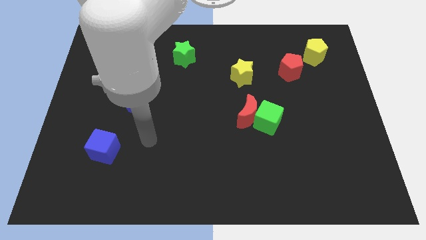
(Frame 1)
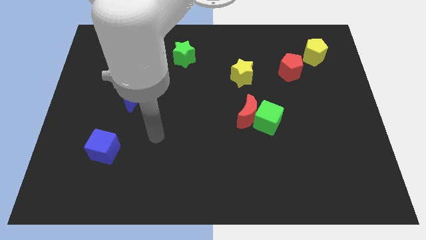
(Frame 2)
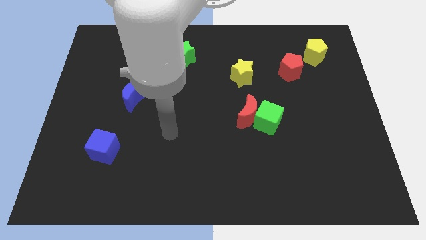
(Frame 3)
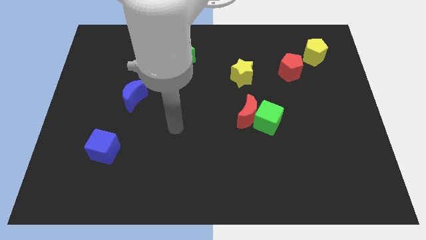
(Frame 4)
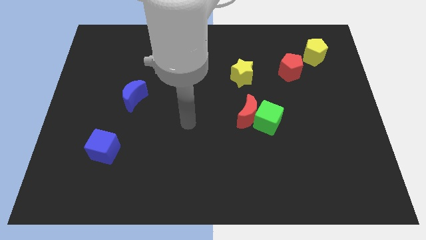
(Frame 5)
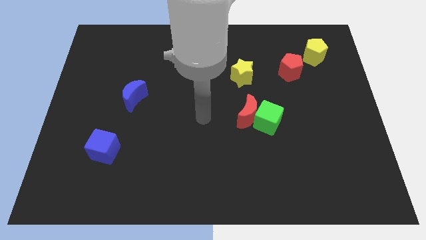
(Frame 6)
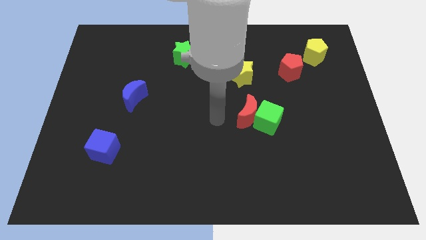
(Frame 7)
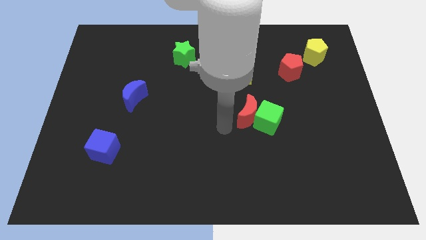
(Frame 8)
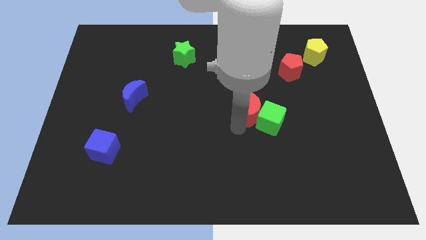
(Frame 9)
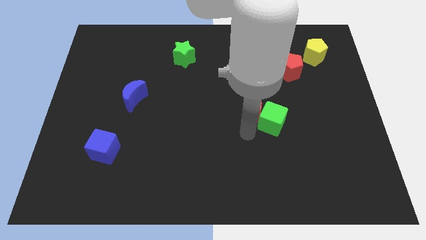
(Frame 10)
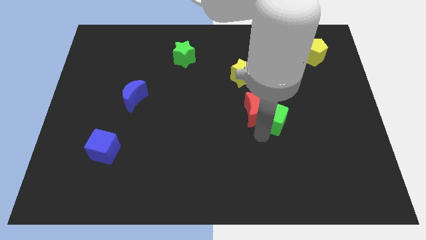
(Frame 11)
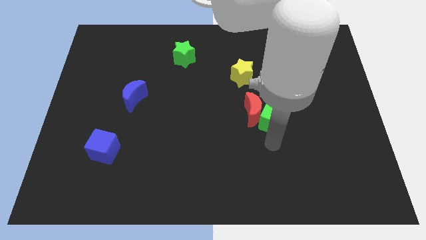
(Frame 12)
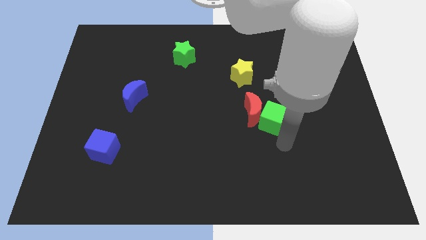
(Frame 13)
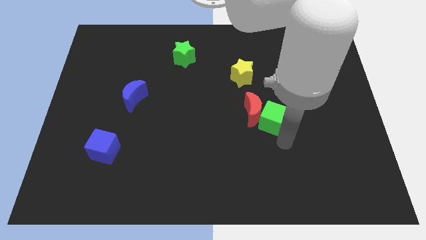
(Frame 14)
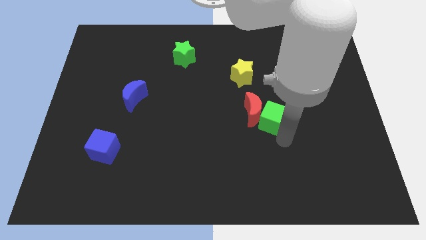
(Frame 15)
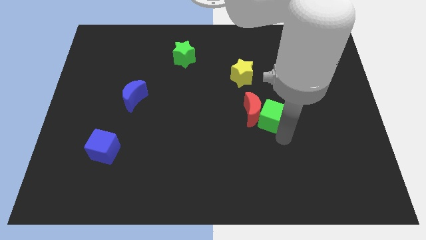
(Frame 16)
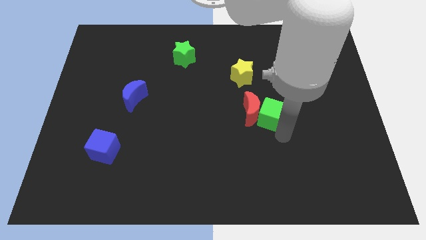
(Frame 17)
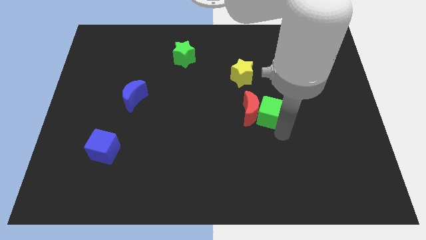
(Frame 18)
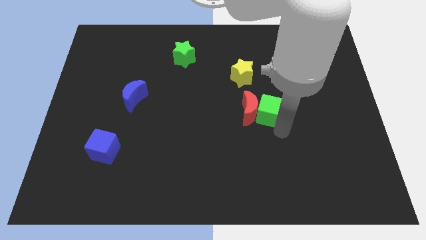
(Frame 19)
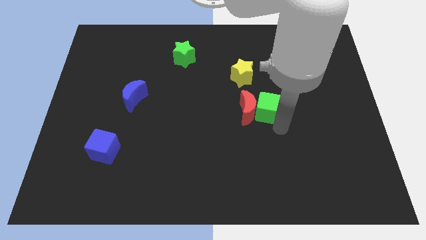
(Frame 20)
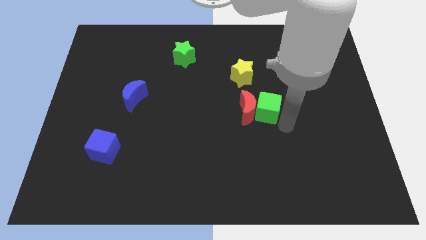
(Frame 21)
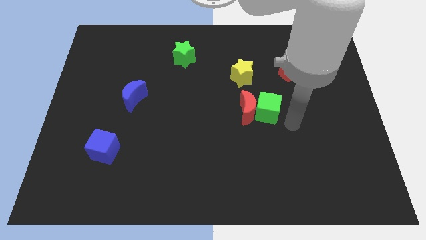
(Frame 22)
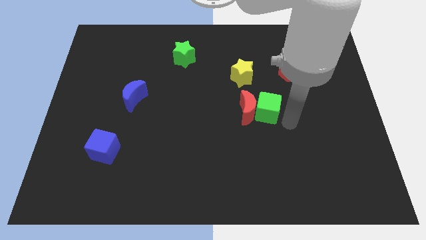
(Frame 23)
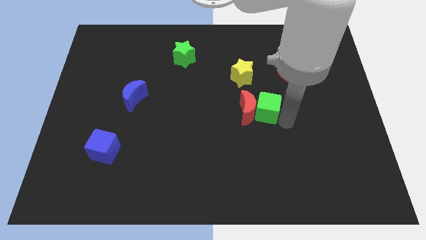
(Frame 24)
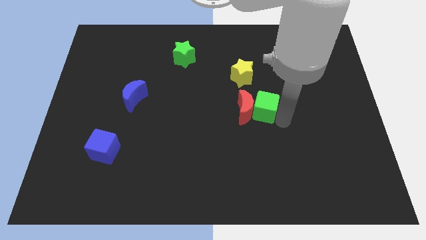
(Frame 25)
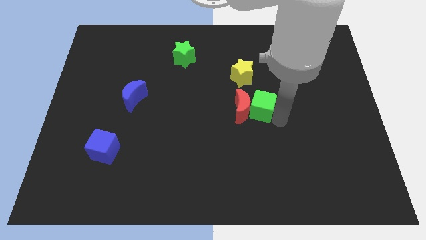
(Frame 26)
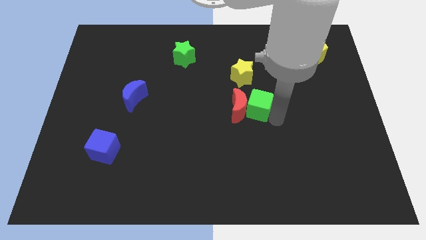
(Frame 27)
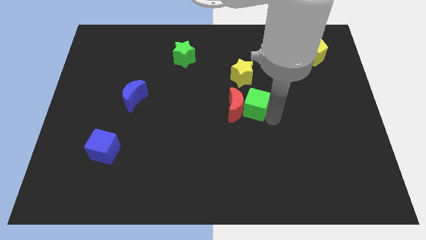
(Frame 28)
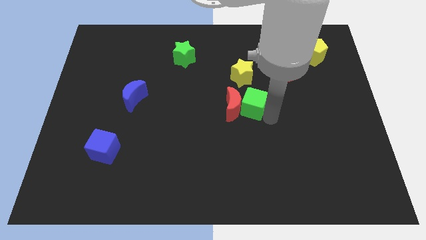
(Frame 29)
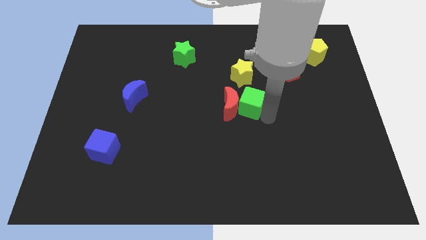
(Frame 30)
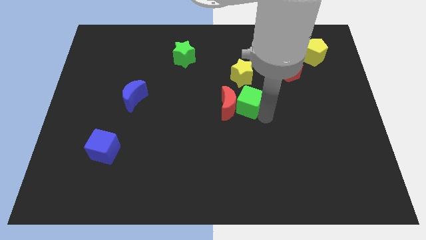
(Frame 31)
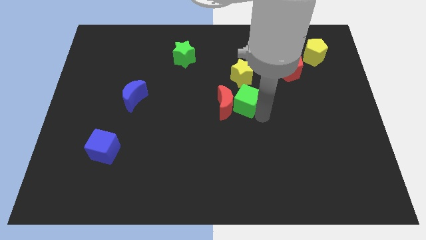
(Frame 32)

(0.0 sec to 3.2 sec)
slide the green cube diagonally upwards and left slightly

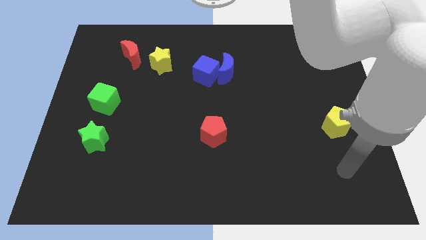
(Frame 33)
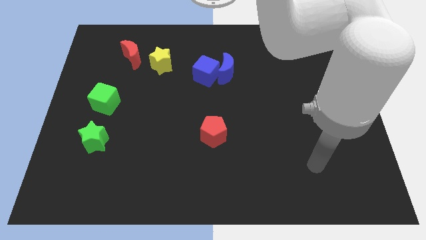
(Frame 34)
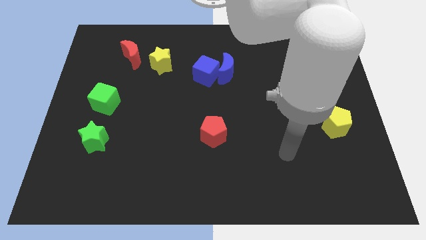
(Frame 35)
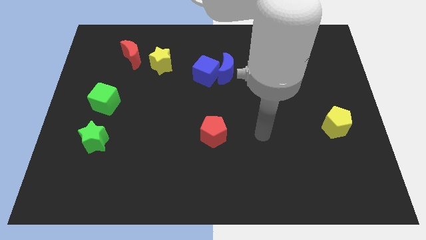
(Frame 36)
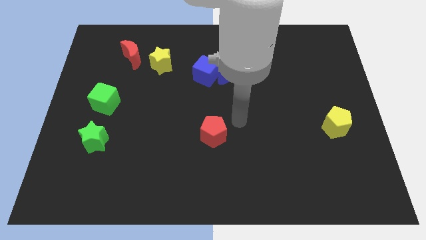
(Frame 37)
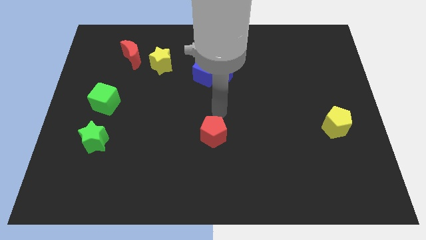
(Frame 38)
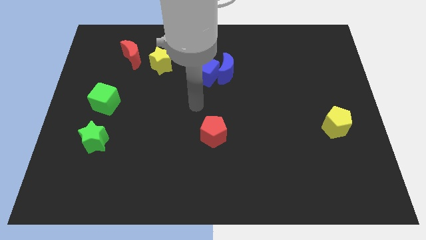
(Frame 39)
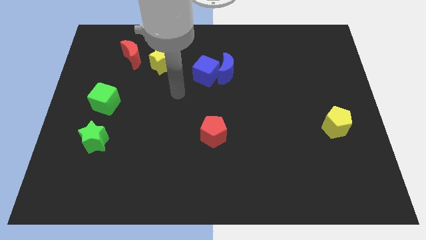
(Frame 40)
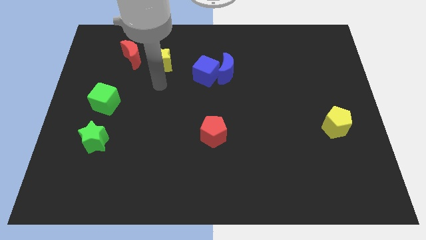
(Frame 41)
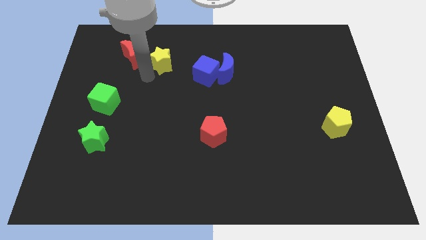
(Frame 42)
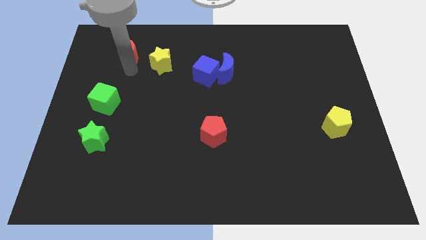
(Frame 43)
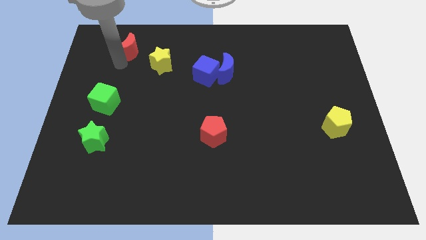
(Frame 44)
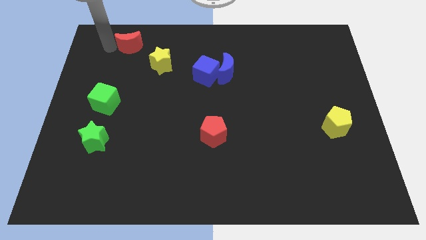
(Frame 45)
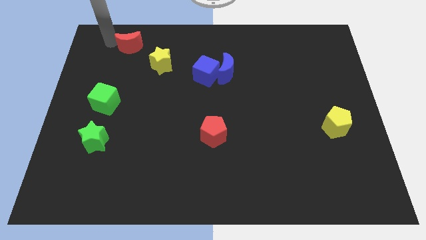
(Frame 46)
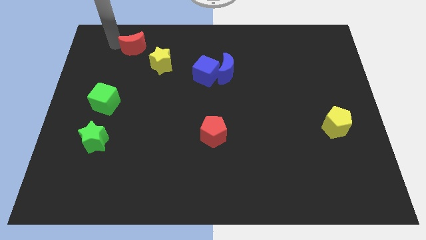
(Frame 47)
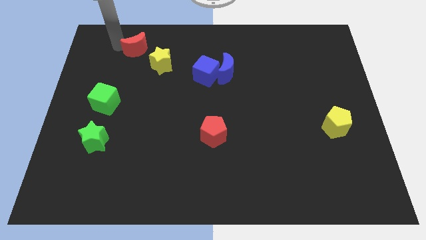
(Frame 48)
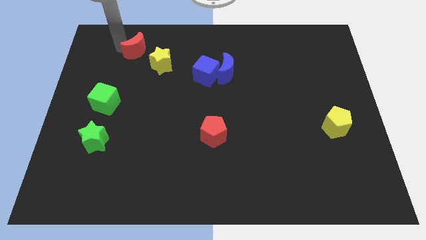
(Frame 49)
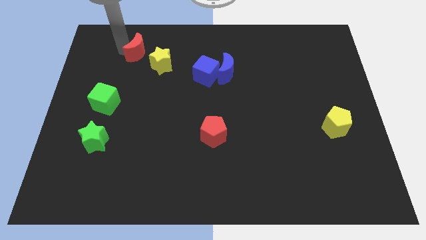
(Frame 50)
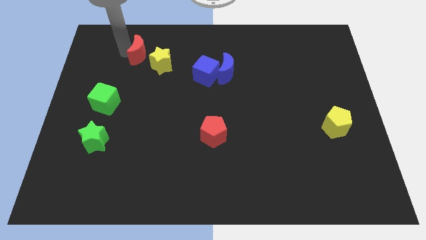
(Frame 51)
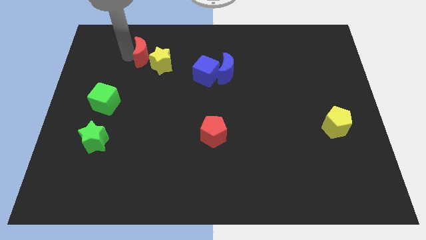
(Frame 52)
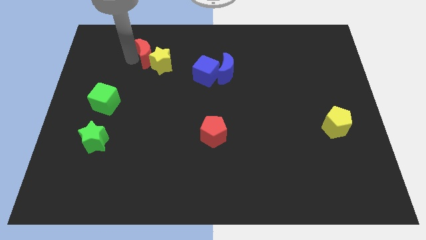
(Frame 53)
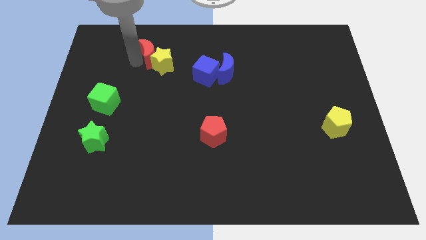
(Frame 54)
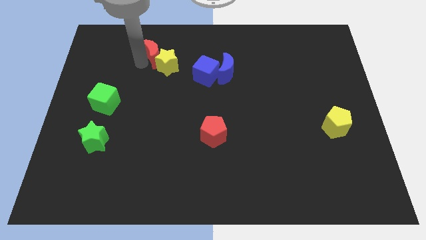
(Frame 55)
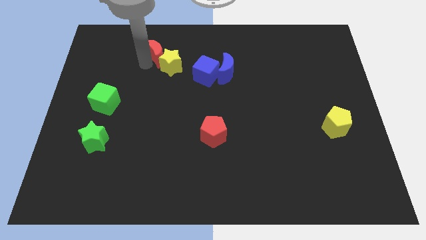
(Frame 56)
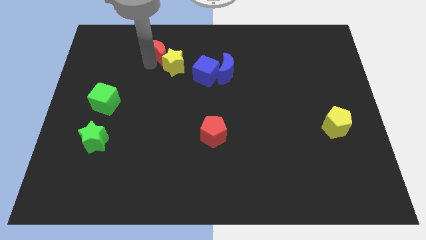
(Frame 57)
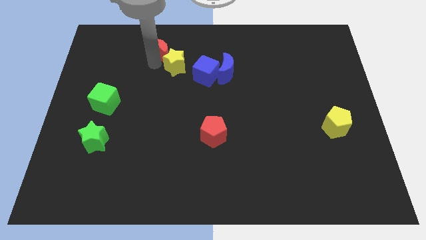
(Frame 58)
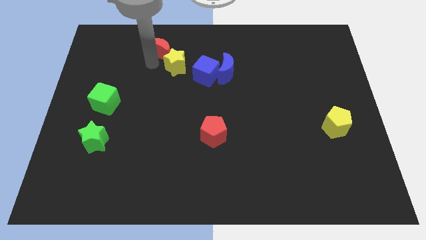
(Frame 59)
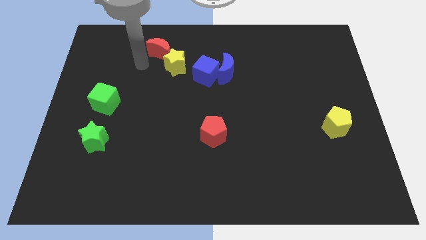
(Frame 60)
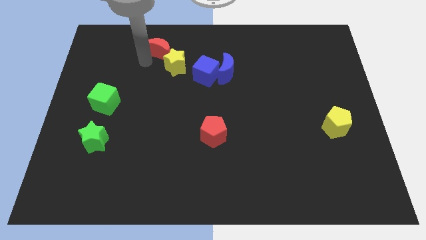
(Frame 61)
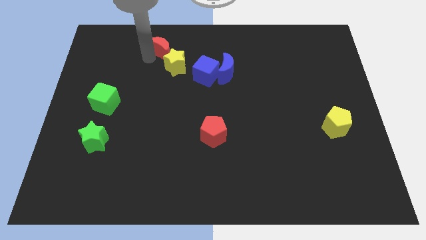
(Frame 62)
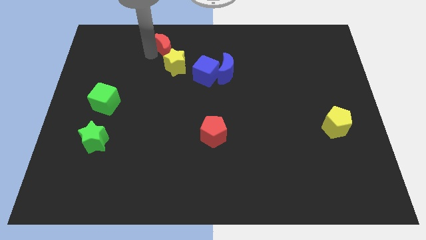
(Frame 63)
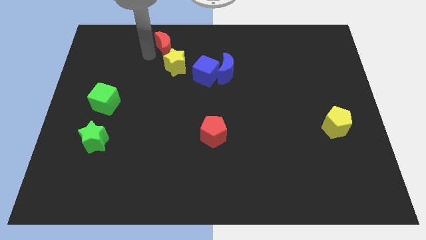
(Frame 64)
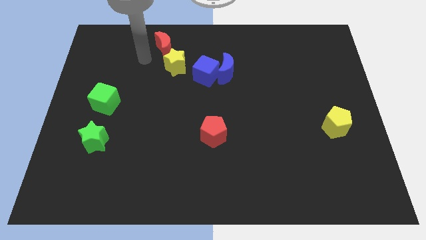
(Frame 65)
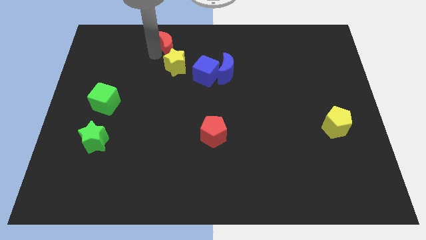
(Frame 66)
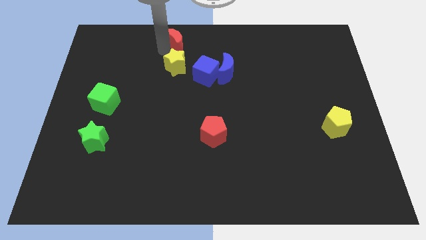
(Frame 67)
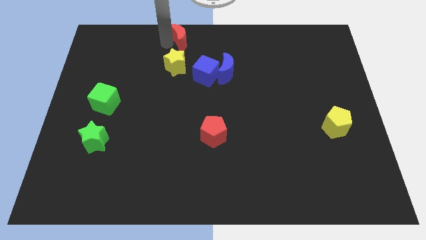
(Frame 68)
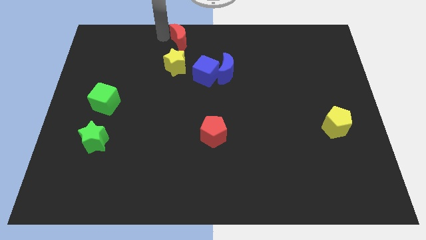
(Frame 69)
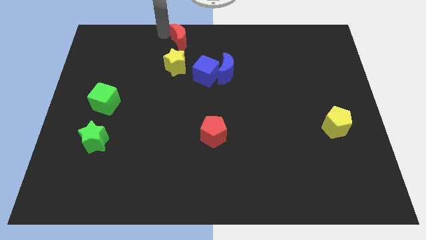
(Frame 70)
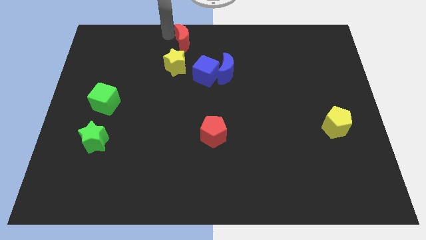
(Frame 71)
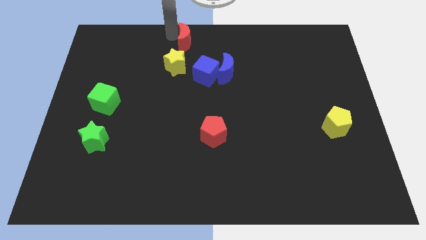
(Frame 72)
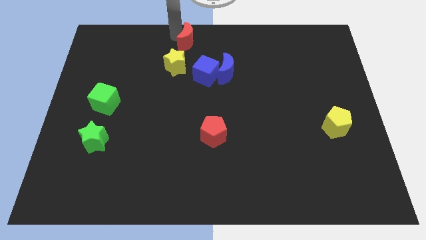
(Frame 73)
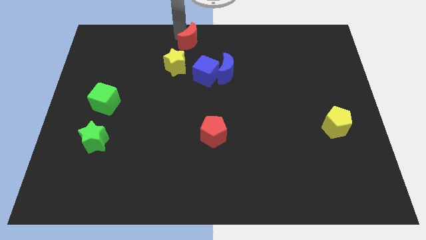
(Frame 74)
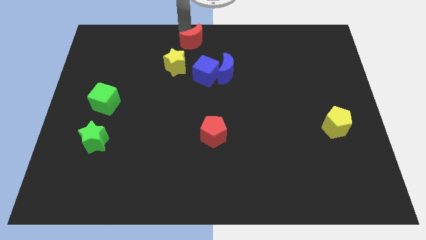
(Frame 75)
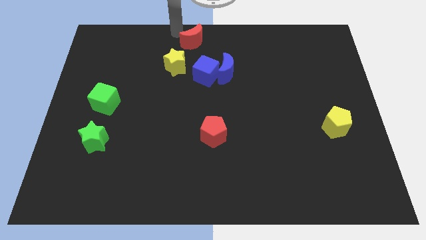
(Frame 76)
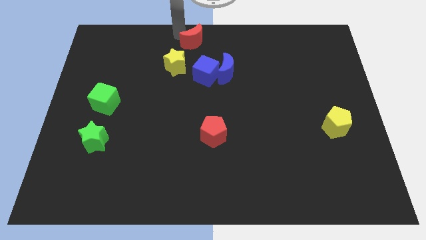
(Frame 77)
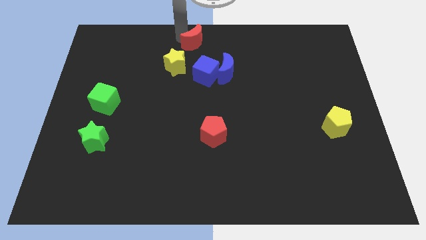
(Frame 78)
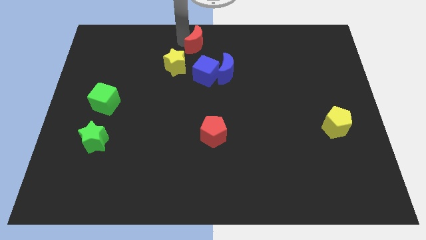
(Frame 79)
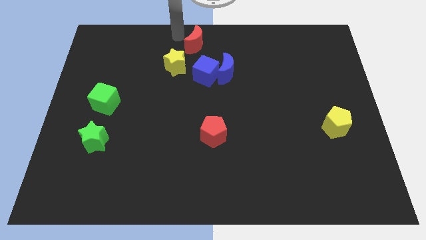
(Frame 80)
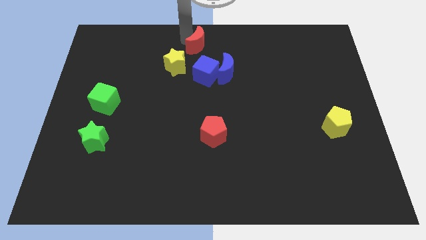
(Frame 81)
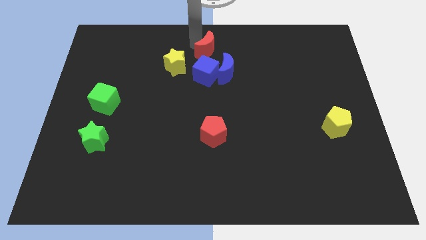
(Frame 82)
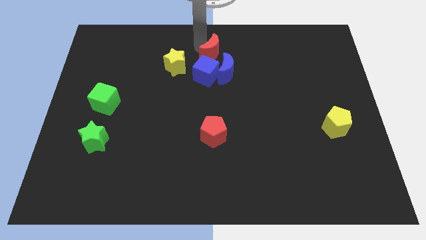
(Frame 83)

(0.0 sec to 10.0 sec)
move the red moon to the right
